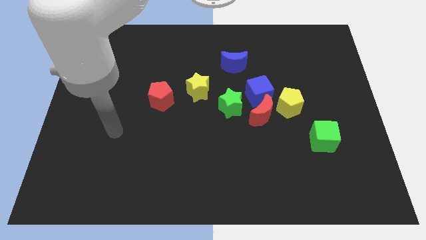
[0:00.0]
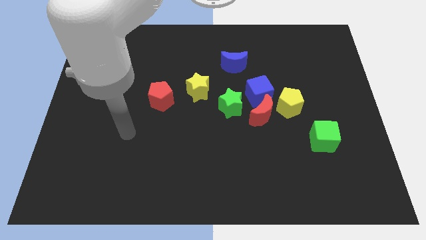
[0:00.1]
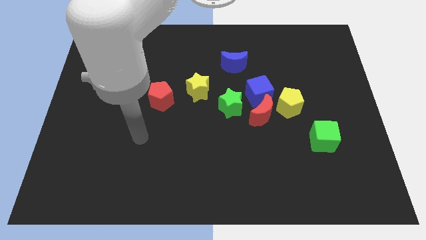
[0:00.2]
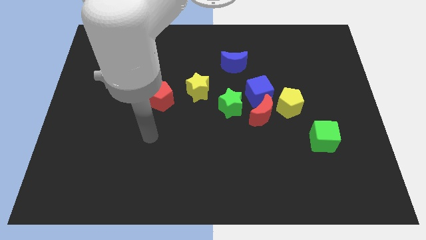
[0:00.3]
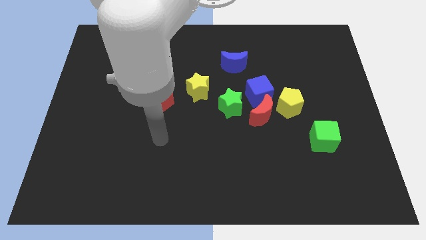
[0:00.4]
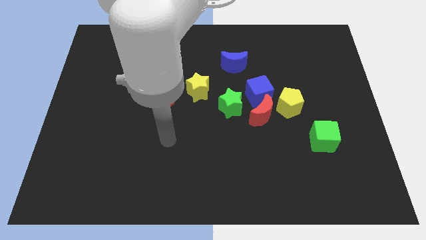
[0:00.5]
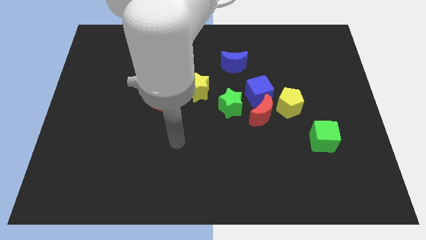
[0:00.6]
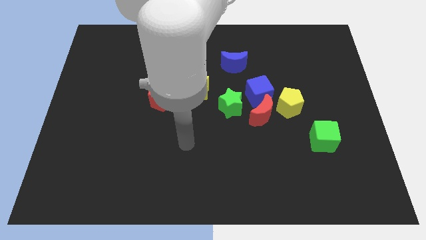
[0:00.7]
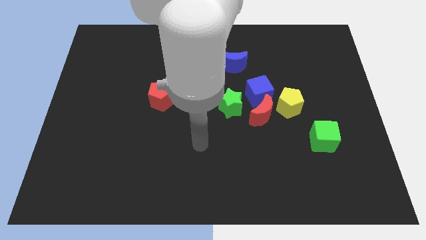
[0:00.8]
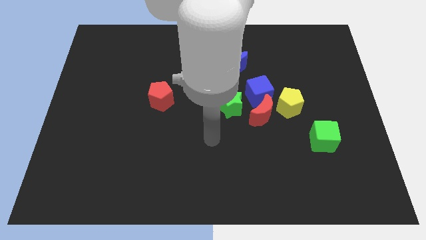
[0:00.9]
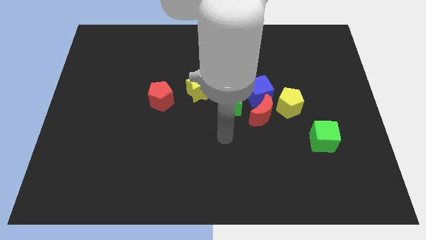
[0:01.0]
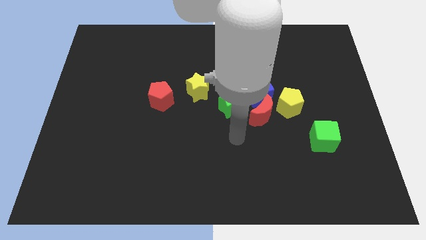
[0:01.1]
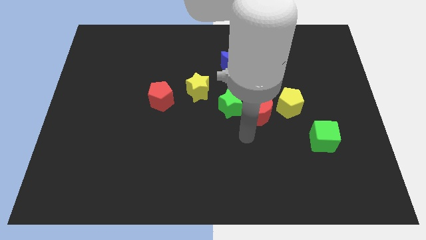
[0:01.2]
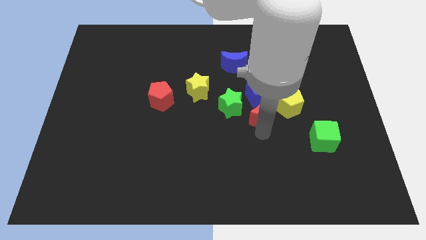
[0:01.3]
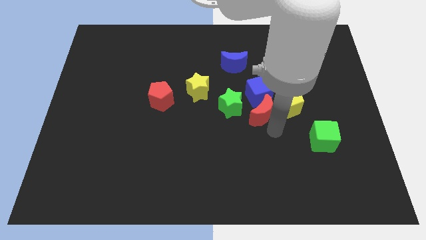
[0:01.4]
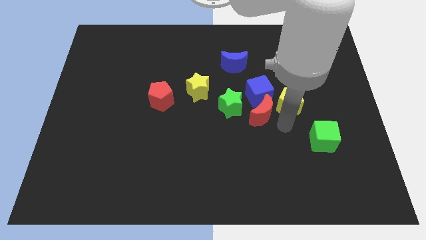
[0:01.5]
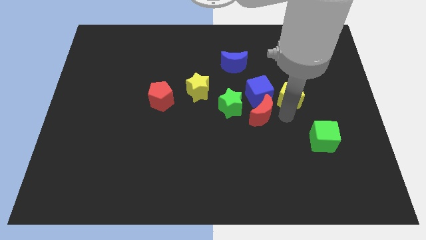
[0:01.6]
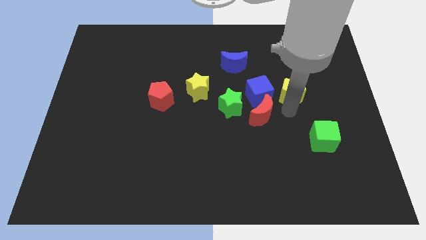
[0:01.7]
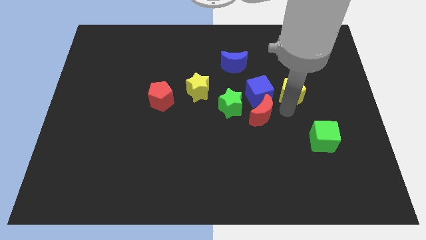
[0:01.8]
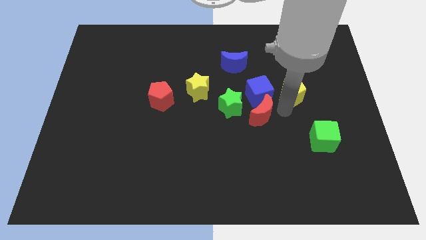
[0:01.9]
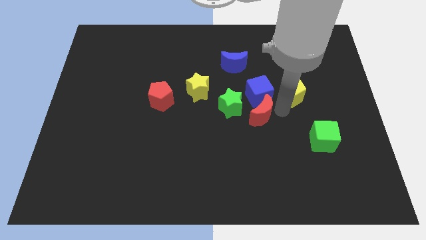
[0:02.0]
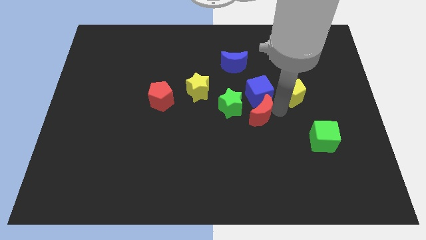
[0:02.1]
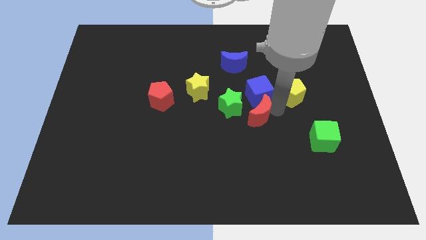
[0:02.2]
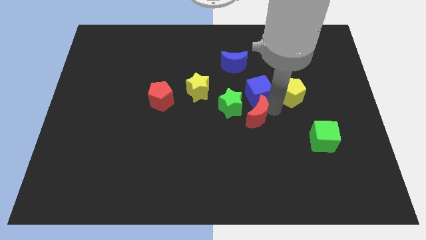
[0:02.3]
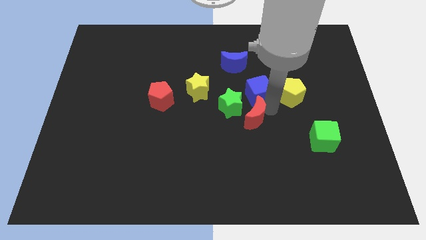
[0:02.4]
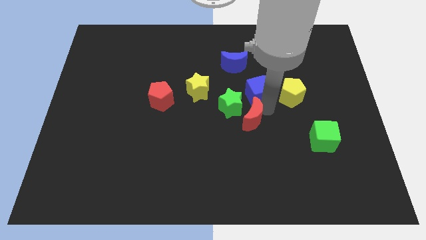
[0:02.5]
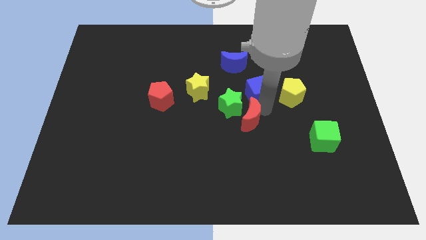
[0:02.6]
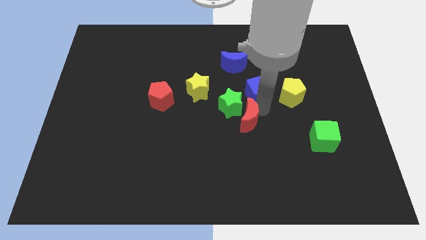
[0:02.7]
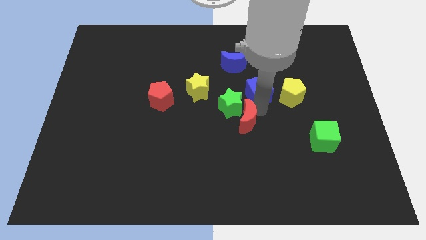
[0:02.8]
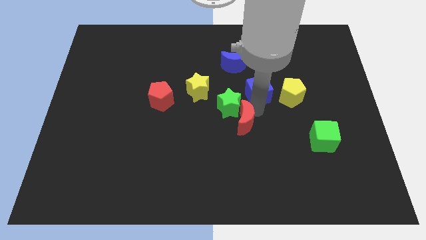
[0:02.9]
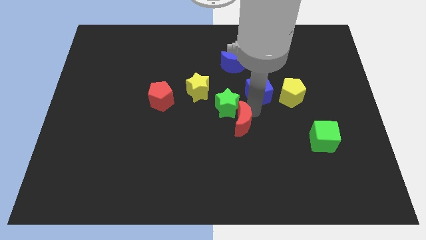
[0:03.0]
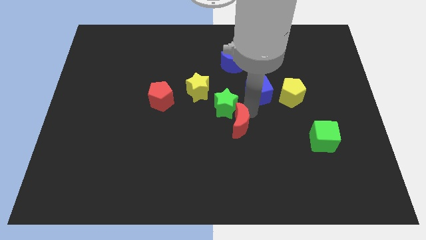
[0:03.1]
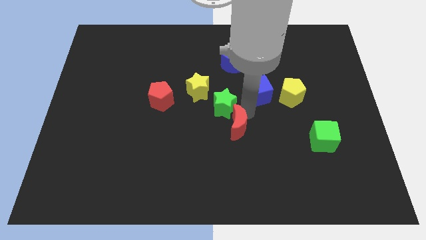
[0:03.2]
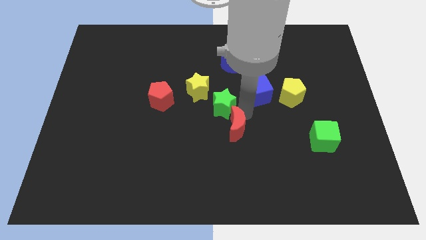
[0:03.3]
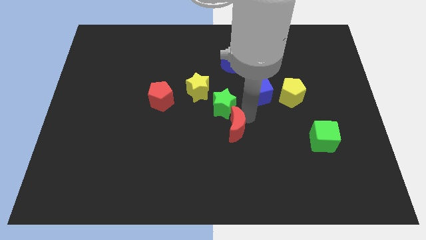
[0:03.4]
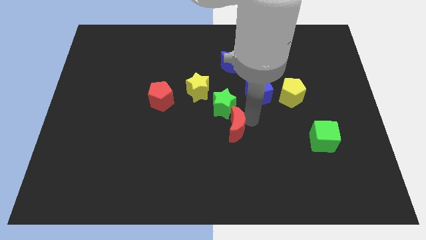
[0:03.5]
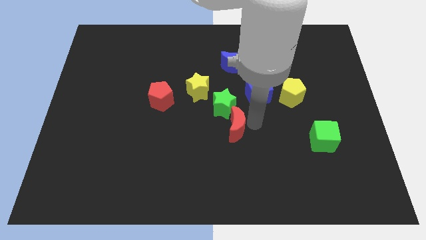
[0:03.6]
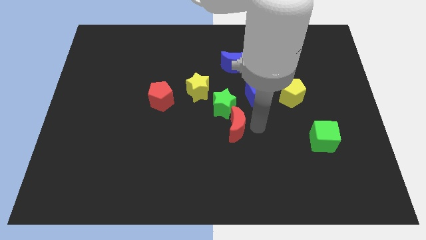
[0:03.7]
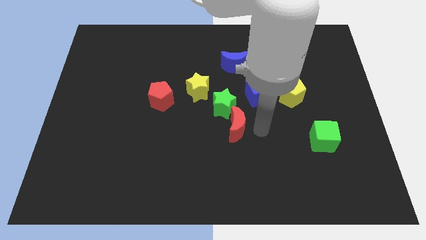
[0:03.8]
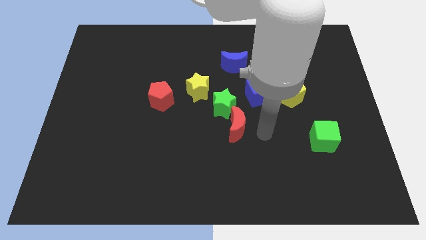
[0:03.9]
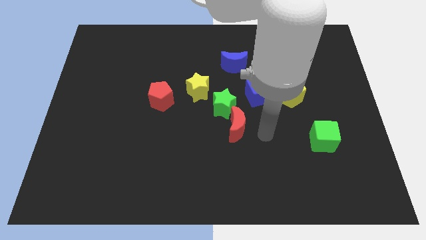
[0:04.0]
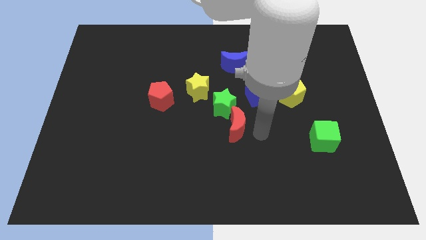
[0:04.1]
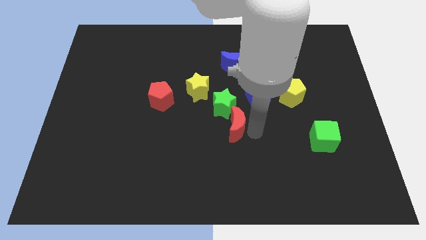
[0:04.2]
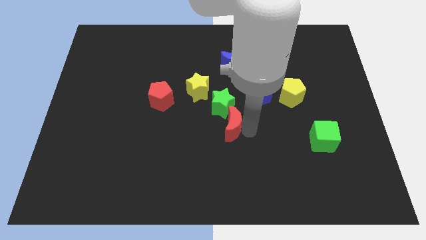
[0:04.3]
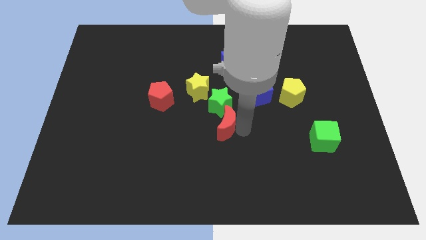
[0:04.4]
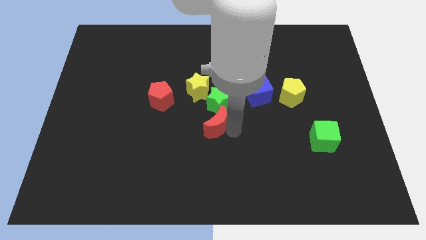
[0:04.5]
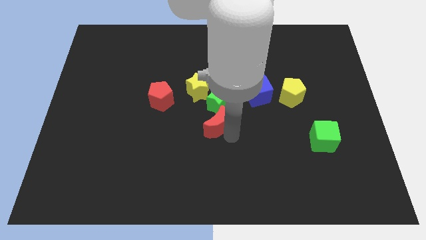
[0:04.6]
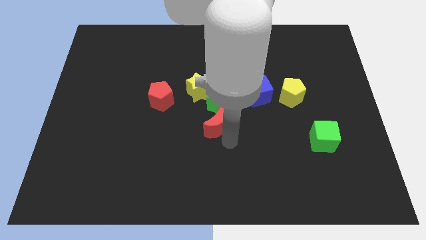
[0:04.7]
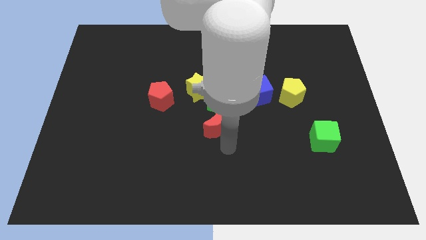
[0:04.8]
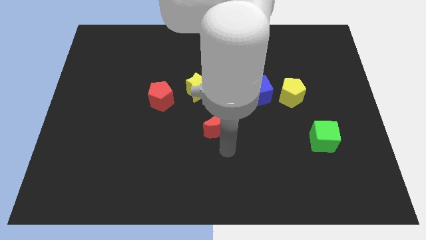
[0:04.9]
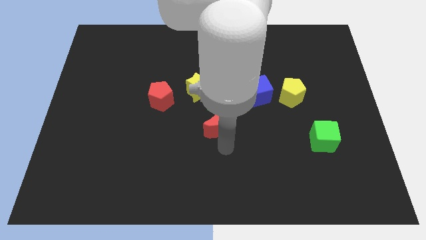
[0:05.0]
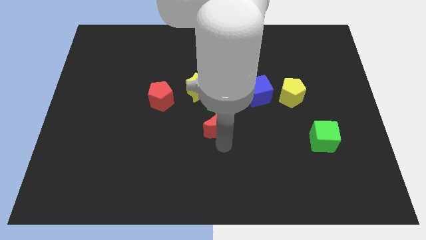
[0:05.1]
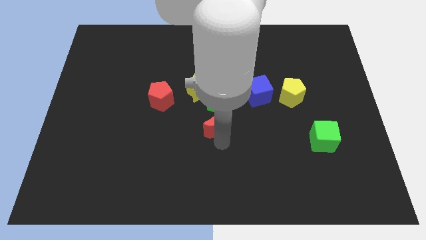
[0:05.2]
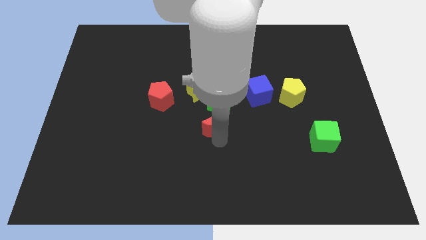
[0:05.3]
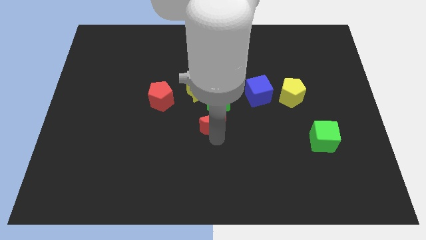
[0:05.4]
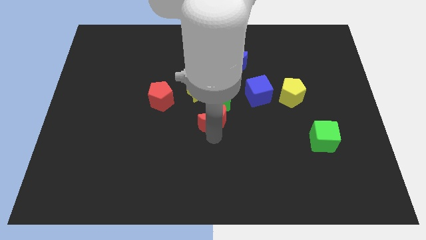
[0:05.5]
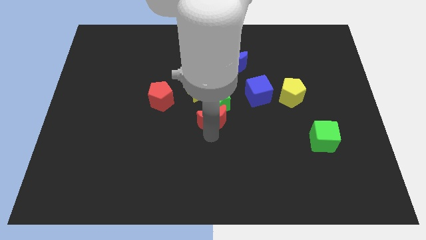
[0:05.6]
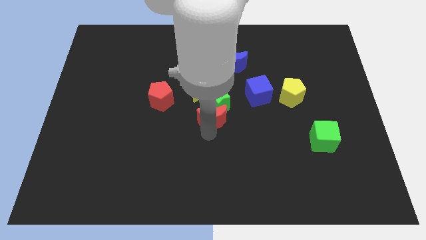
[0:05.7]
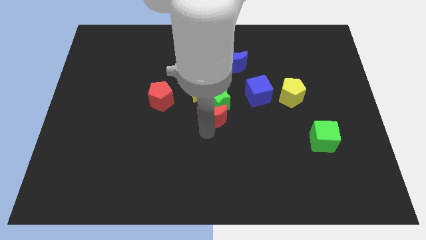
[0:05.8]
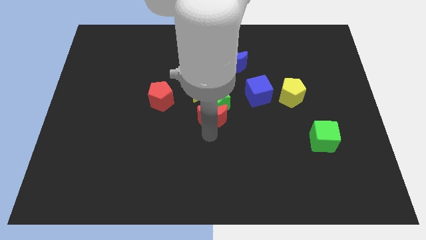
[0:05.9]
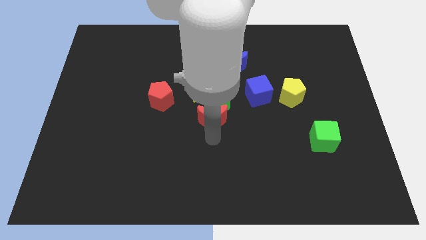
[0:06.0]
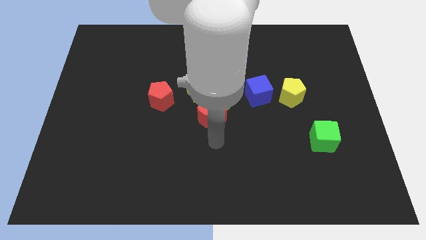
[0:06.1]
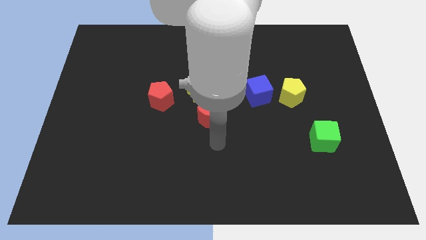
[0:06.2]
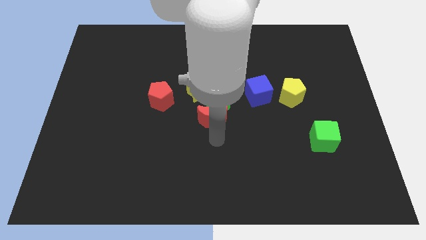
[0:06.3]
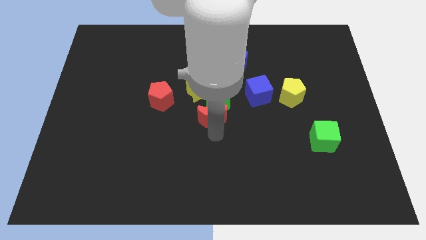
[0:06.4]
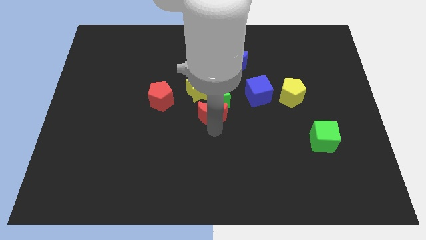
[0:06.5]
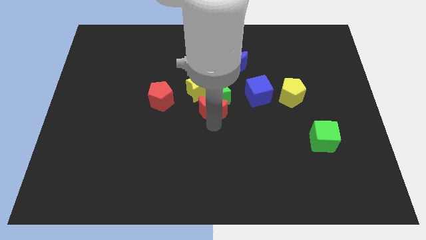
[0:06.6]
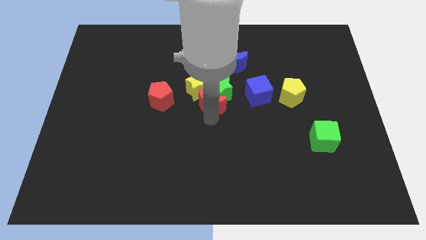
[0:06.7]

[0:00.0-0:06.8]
move the red moon upwards and to the left diagonally a bit

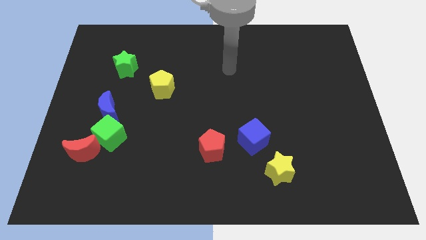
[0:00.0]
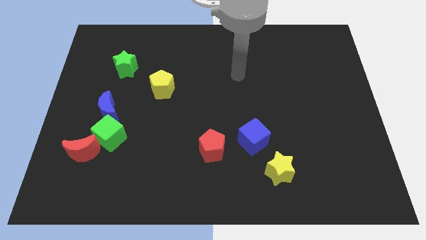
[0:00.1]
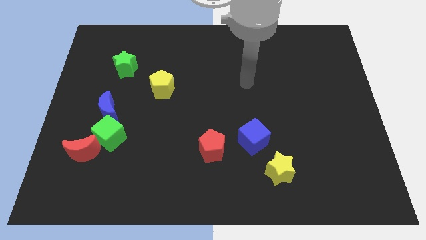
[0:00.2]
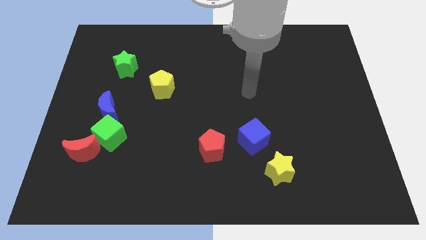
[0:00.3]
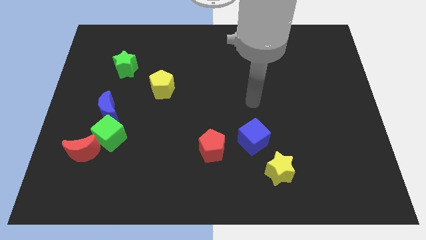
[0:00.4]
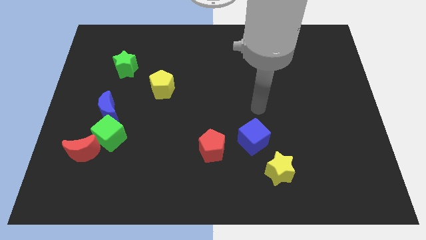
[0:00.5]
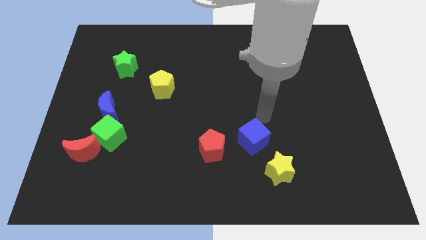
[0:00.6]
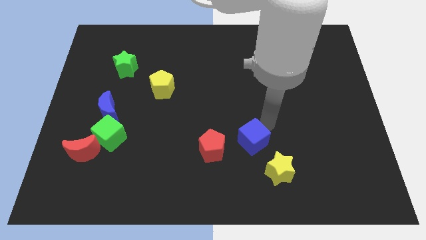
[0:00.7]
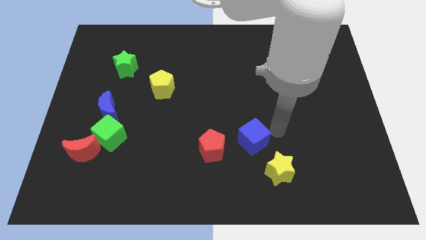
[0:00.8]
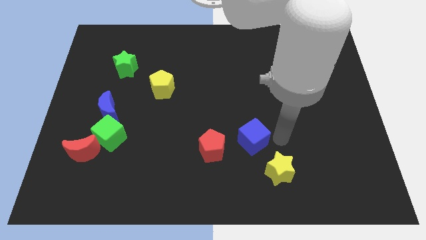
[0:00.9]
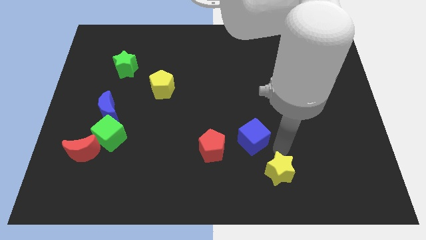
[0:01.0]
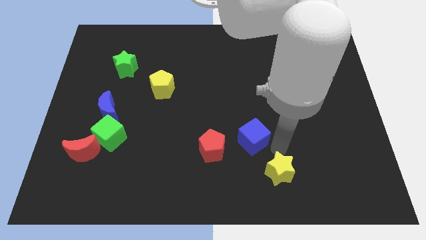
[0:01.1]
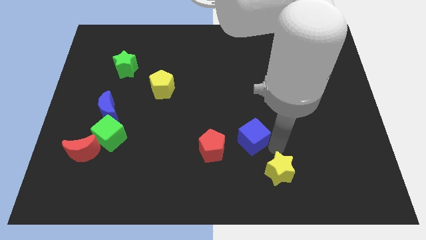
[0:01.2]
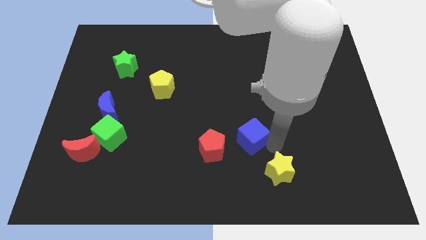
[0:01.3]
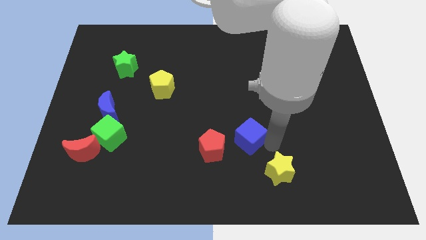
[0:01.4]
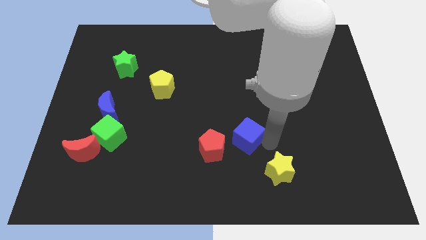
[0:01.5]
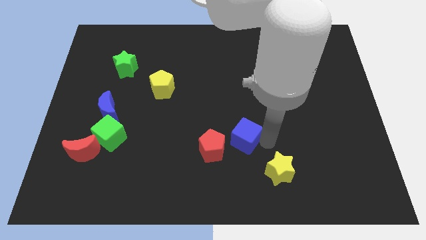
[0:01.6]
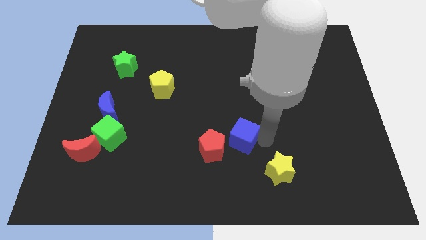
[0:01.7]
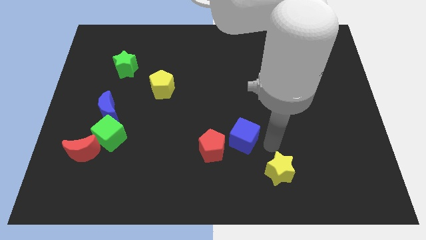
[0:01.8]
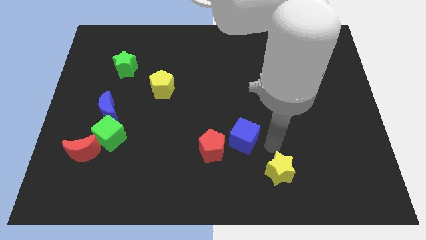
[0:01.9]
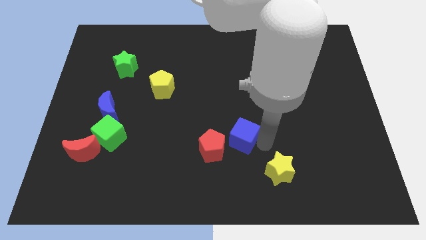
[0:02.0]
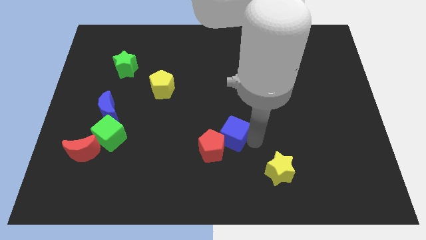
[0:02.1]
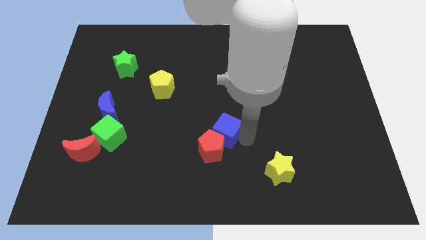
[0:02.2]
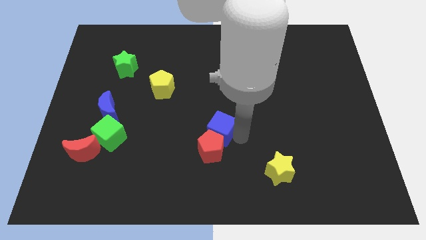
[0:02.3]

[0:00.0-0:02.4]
move the blue cube a little bit left
